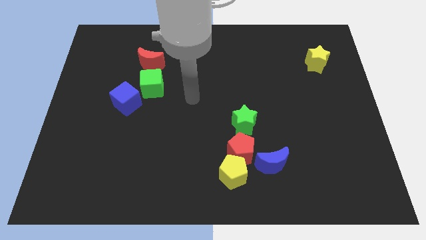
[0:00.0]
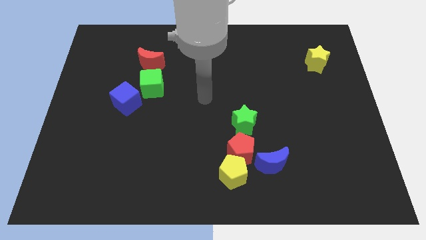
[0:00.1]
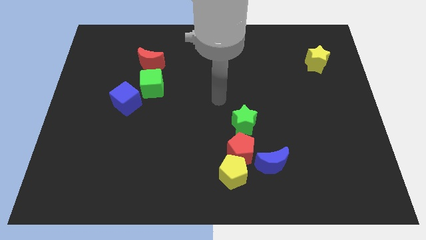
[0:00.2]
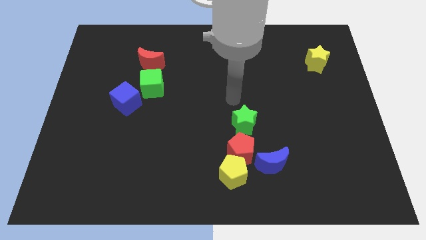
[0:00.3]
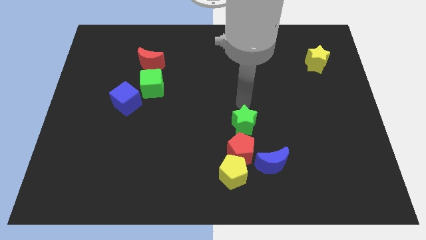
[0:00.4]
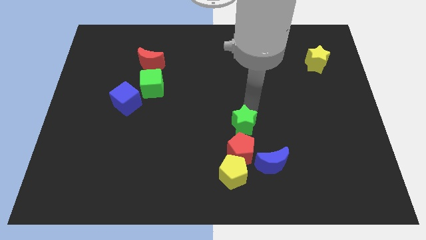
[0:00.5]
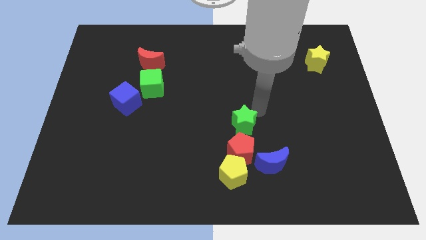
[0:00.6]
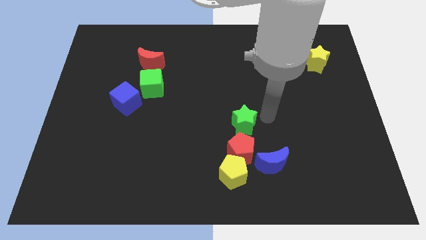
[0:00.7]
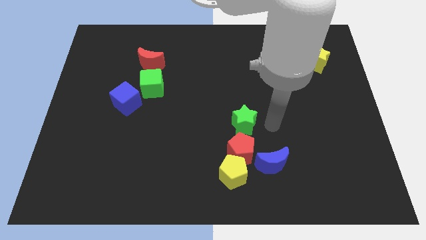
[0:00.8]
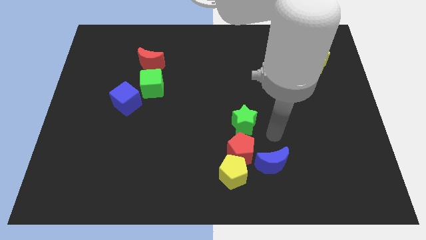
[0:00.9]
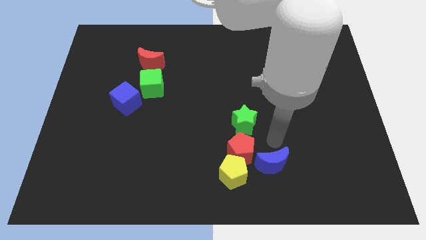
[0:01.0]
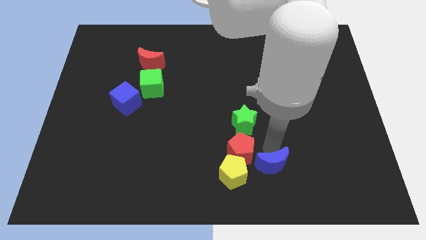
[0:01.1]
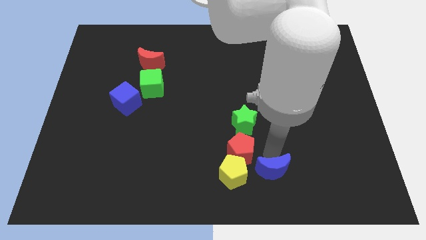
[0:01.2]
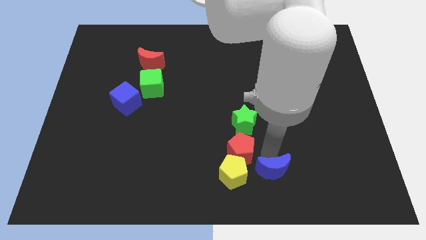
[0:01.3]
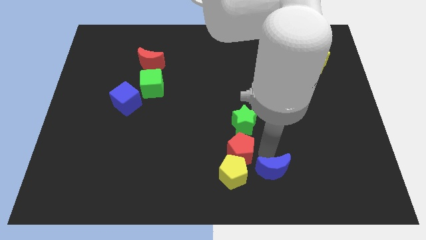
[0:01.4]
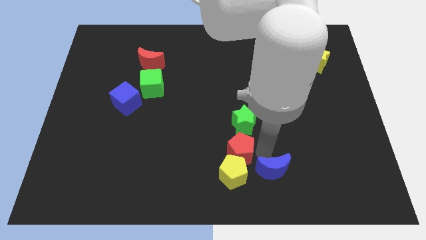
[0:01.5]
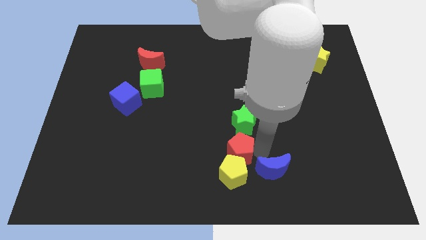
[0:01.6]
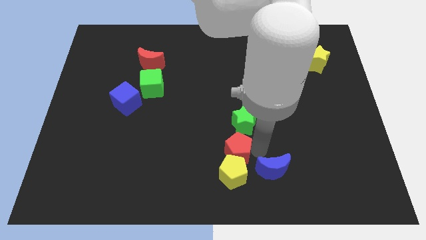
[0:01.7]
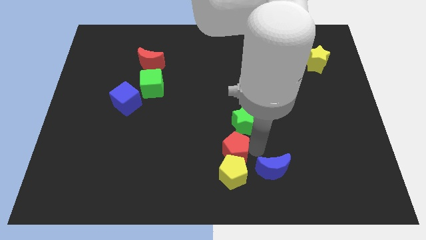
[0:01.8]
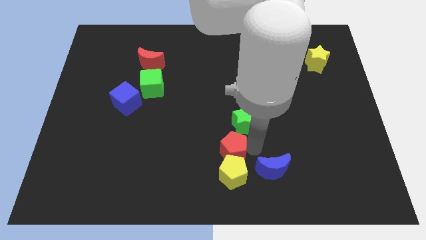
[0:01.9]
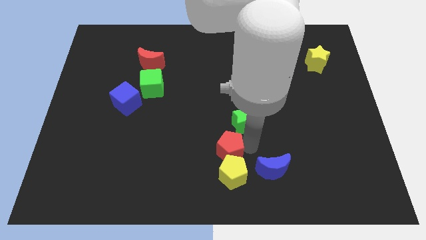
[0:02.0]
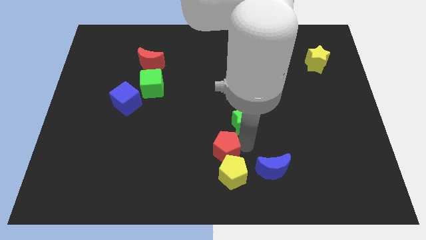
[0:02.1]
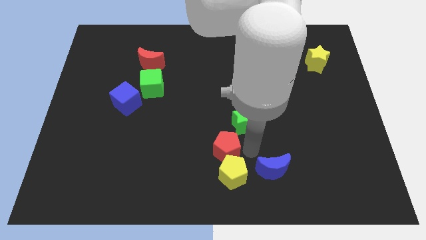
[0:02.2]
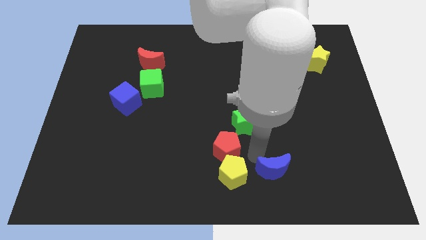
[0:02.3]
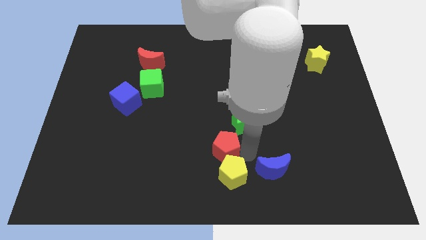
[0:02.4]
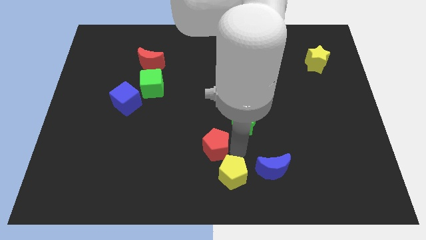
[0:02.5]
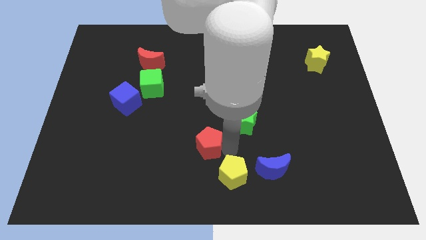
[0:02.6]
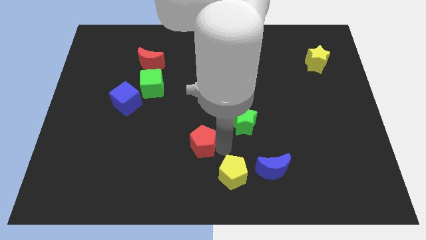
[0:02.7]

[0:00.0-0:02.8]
pull the red pentagon apart from the yellow pentagon, blue moon, and green star

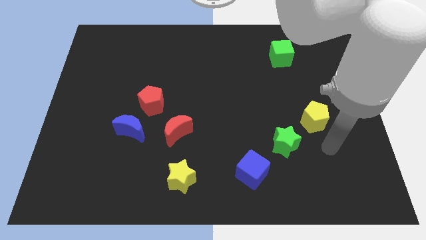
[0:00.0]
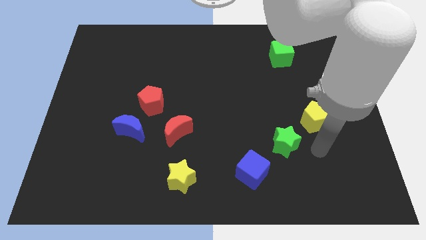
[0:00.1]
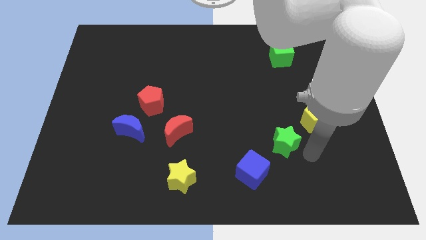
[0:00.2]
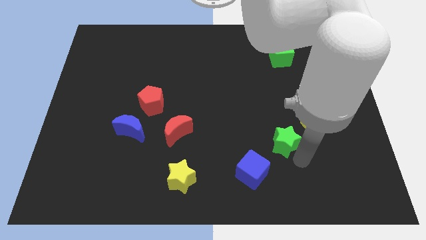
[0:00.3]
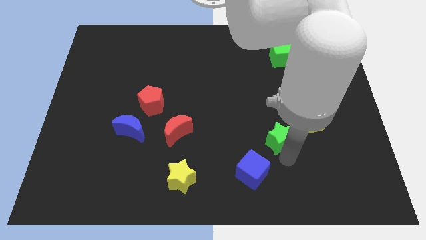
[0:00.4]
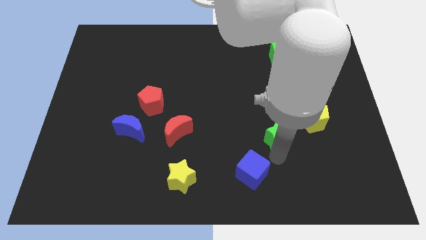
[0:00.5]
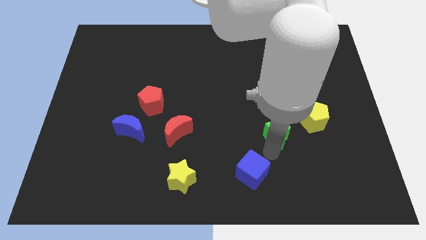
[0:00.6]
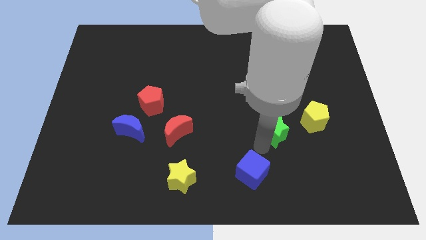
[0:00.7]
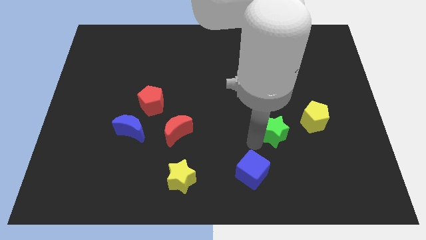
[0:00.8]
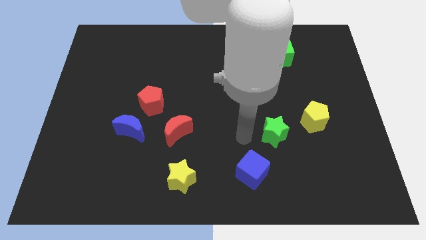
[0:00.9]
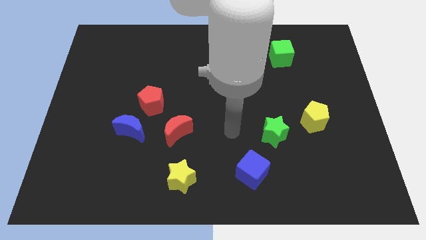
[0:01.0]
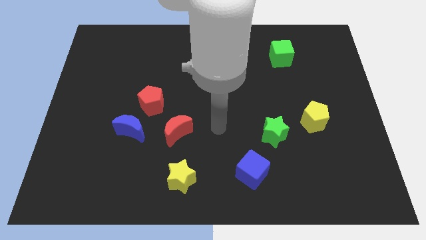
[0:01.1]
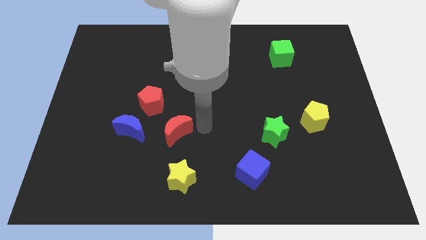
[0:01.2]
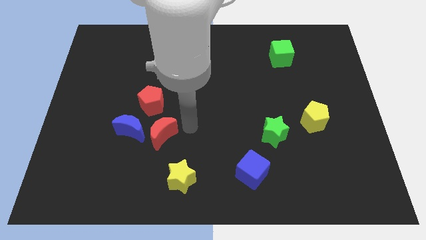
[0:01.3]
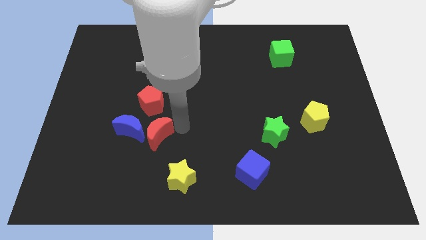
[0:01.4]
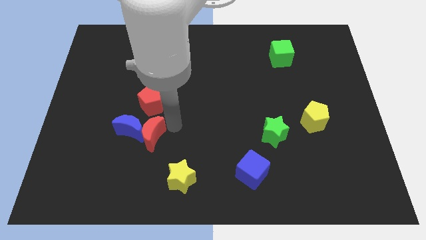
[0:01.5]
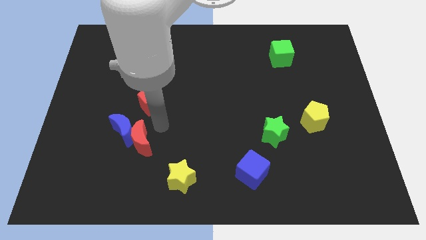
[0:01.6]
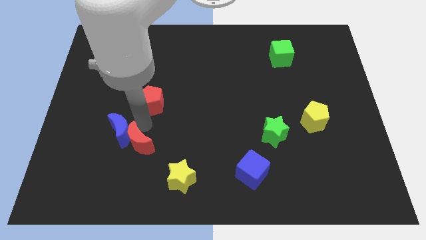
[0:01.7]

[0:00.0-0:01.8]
pull the red pentagon apart from the blue moon and red moon

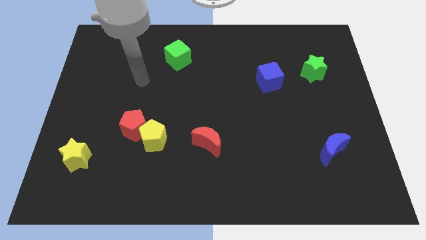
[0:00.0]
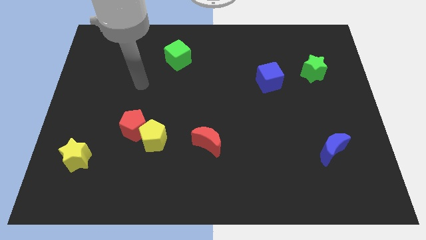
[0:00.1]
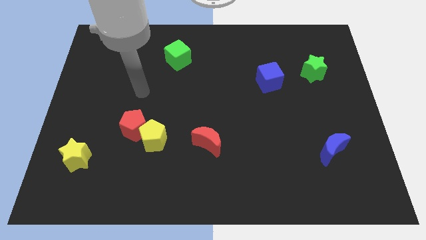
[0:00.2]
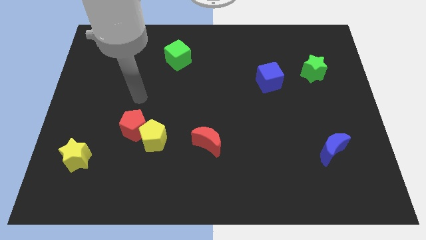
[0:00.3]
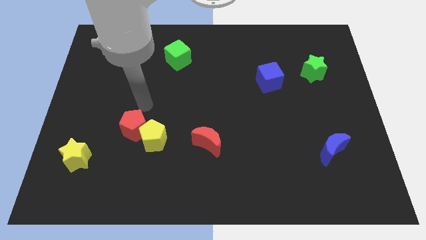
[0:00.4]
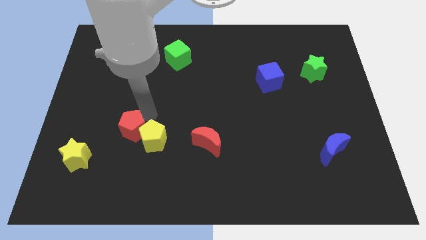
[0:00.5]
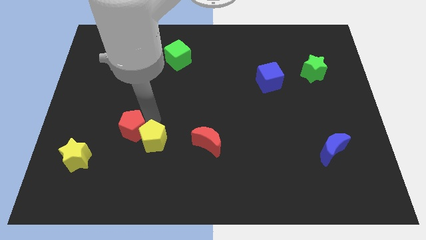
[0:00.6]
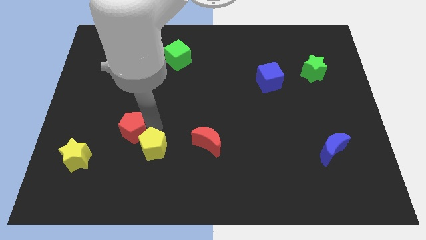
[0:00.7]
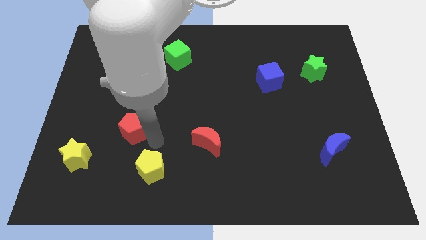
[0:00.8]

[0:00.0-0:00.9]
move the red pentagon away from the yellow pentagon

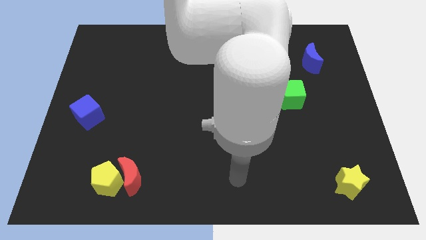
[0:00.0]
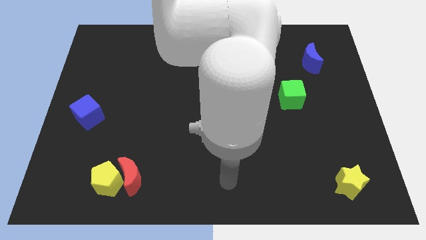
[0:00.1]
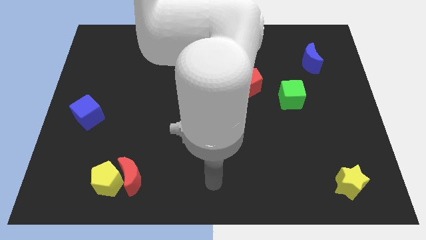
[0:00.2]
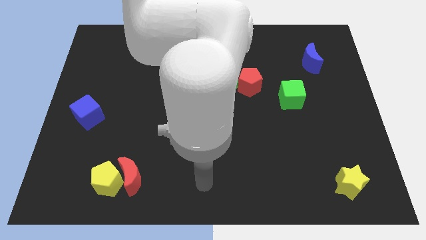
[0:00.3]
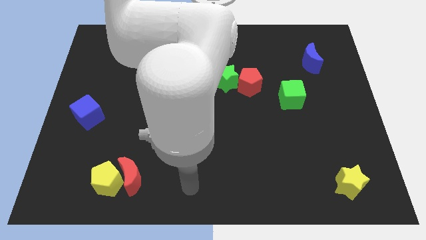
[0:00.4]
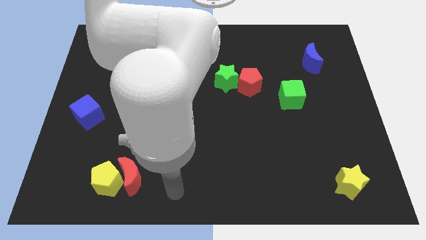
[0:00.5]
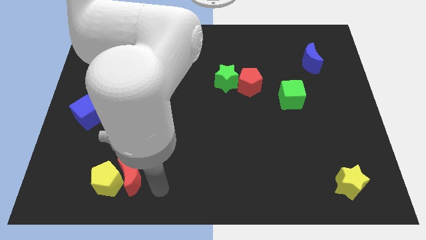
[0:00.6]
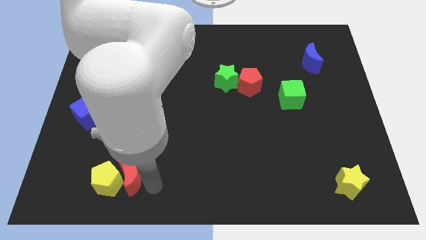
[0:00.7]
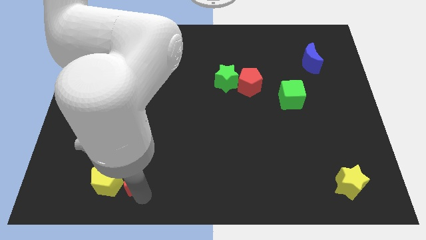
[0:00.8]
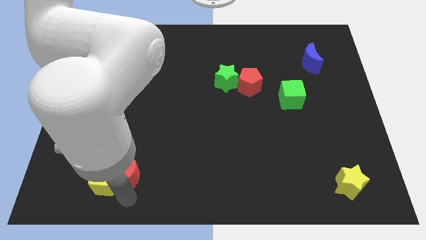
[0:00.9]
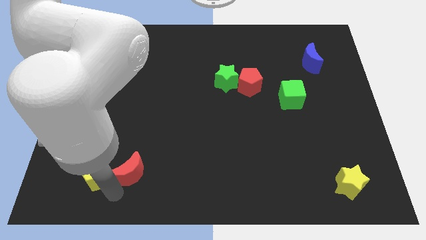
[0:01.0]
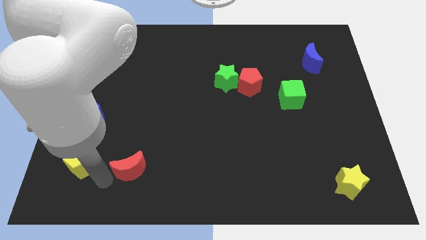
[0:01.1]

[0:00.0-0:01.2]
move the red moon away from the yellow pentagon

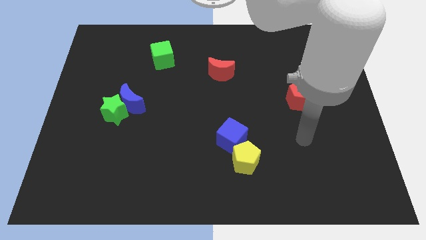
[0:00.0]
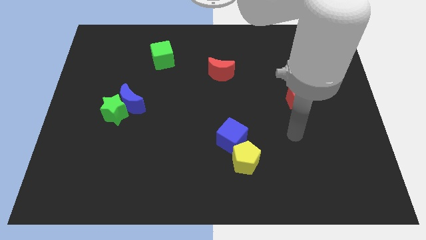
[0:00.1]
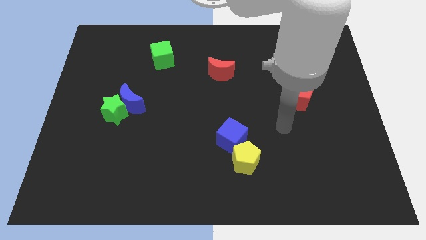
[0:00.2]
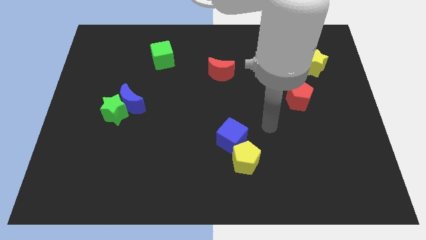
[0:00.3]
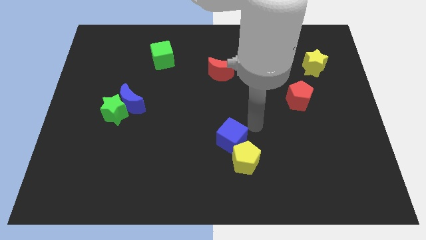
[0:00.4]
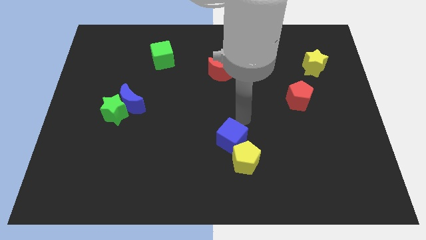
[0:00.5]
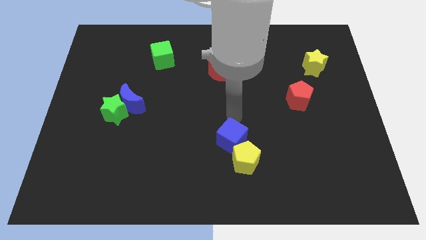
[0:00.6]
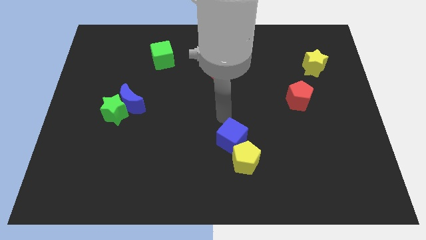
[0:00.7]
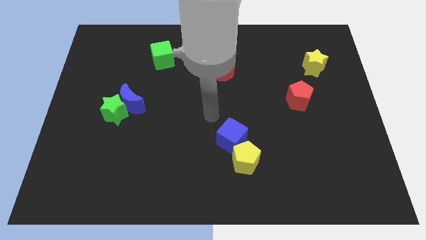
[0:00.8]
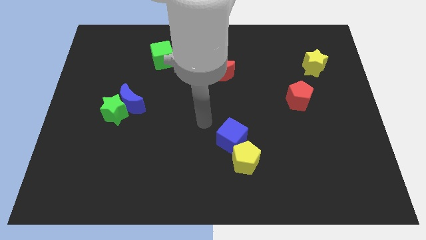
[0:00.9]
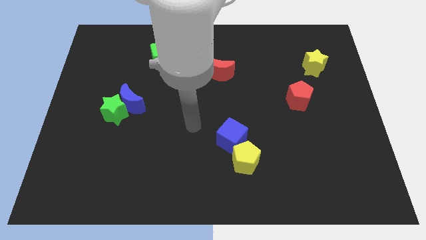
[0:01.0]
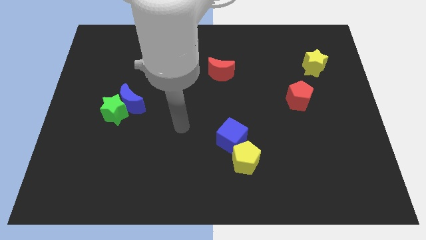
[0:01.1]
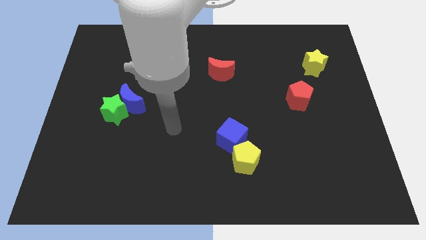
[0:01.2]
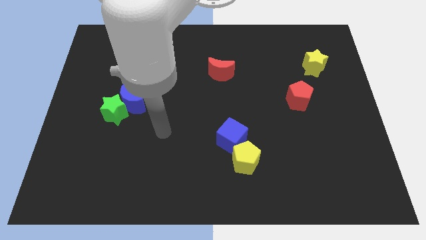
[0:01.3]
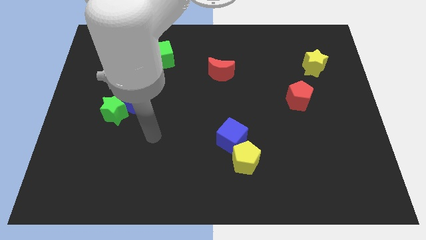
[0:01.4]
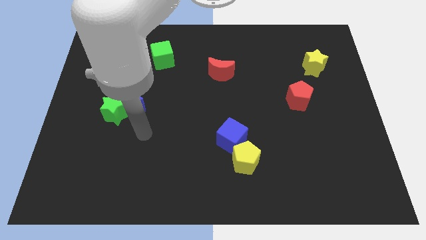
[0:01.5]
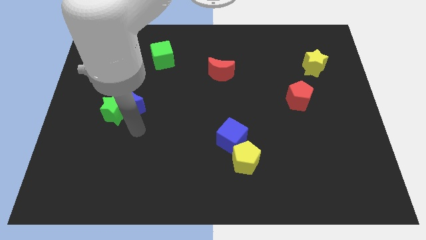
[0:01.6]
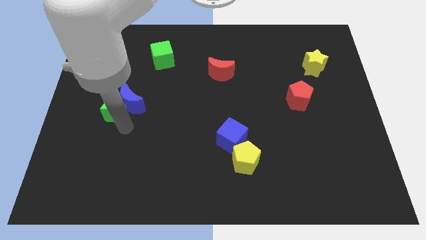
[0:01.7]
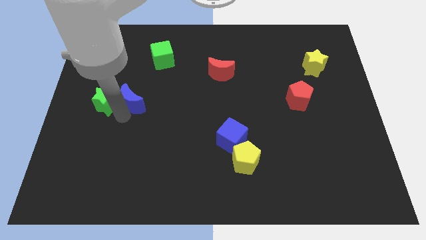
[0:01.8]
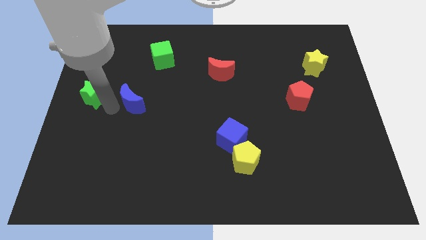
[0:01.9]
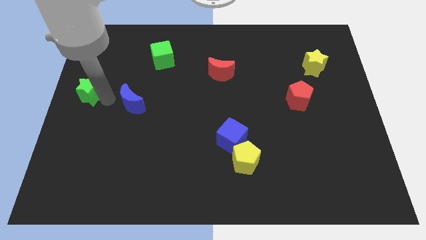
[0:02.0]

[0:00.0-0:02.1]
separate the blue moon from the green star

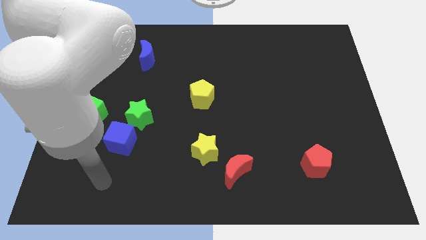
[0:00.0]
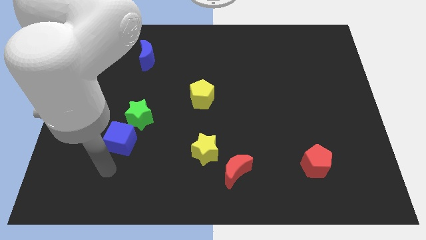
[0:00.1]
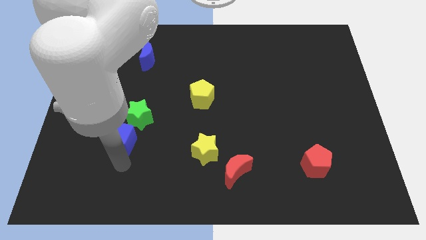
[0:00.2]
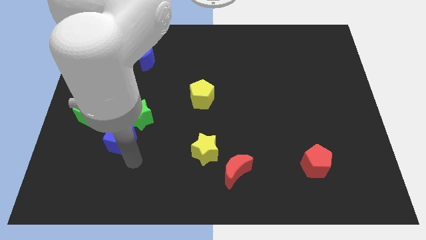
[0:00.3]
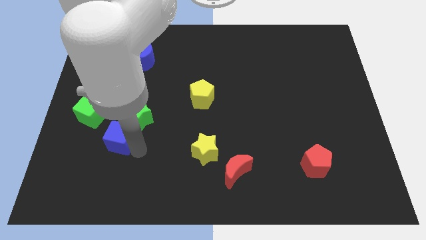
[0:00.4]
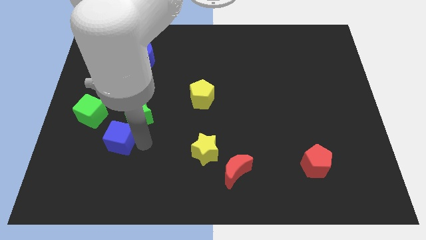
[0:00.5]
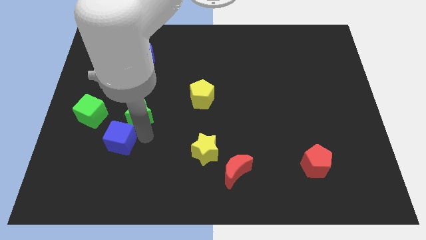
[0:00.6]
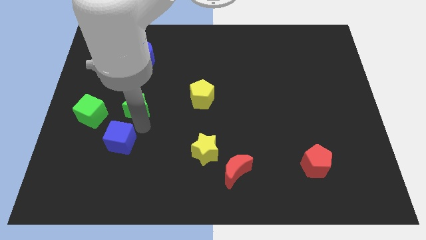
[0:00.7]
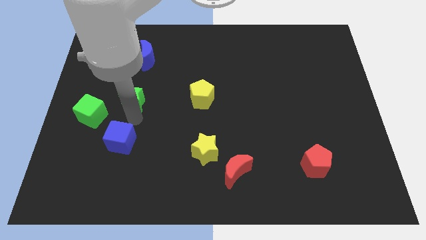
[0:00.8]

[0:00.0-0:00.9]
move the blue cube away from the green star
